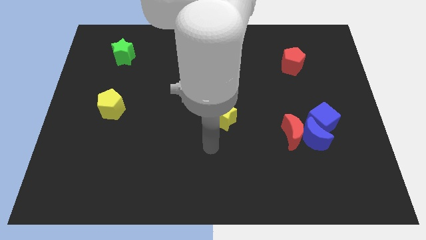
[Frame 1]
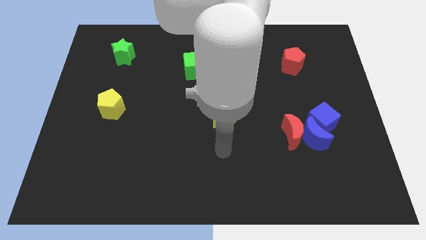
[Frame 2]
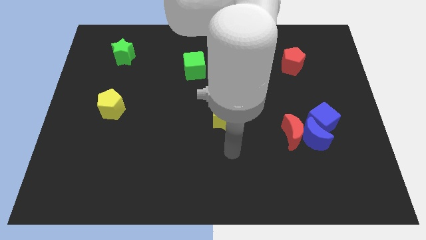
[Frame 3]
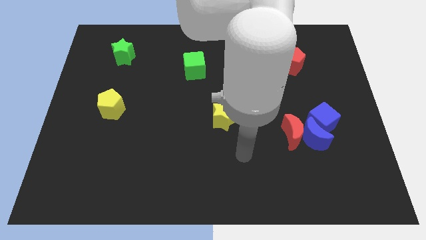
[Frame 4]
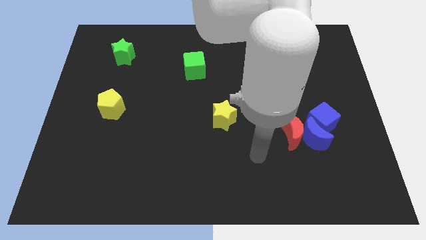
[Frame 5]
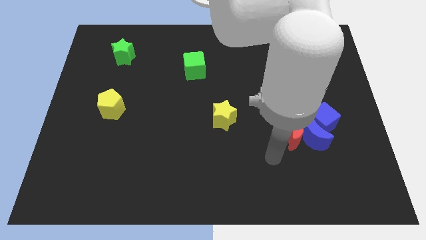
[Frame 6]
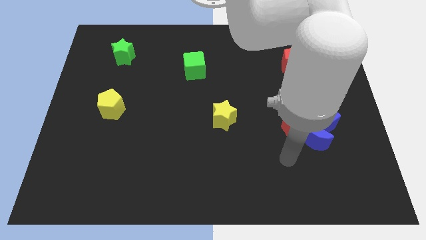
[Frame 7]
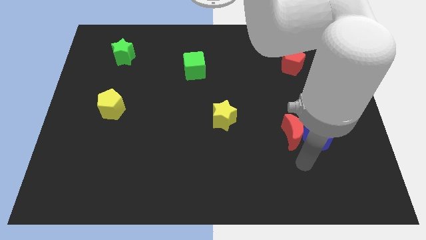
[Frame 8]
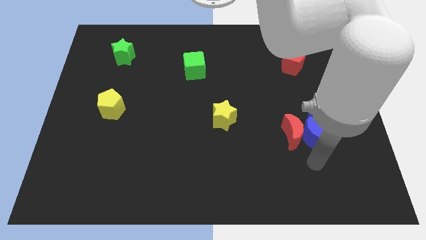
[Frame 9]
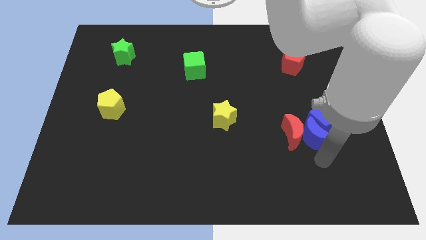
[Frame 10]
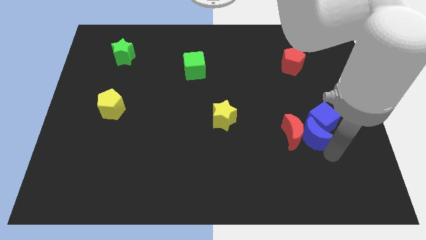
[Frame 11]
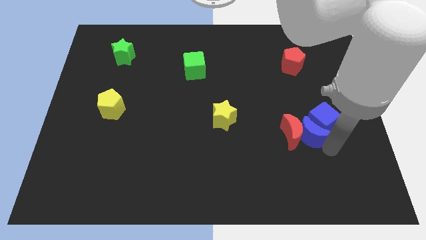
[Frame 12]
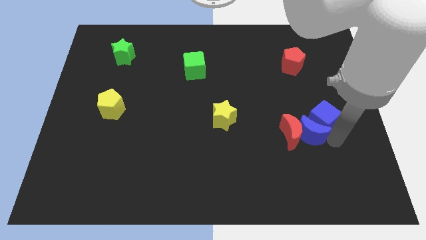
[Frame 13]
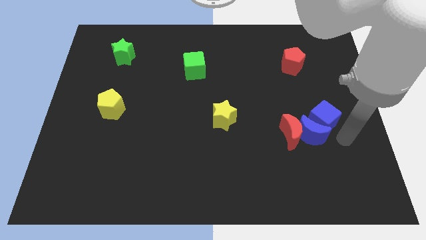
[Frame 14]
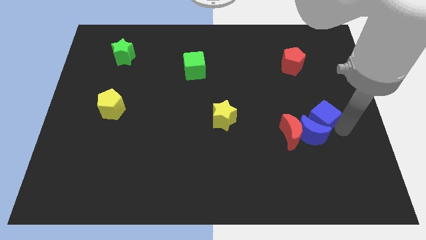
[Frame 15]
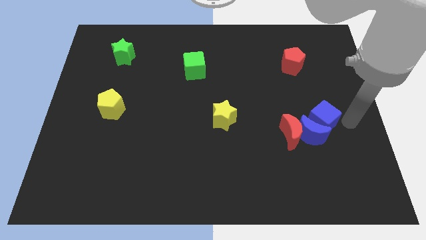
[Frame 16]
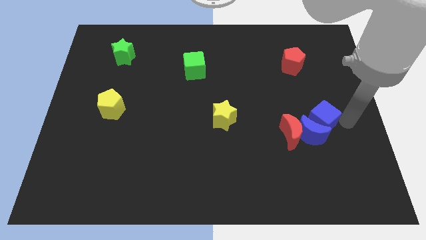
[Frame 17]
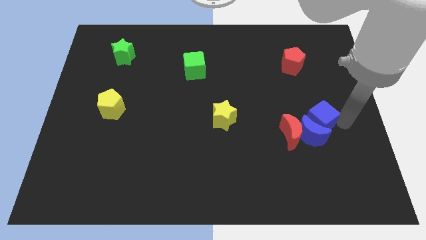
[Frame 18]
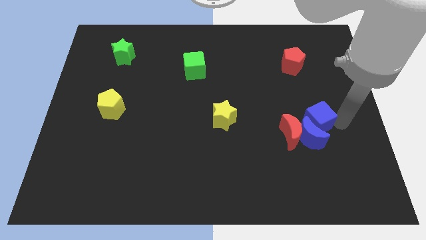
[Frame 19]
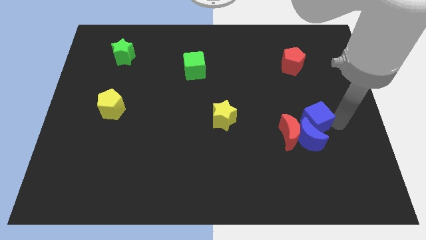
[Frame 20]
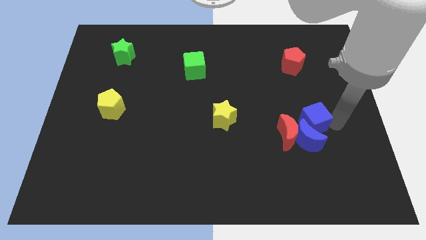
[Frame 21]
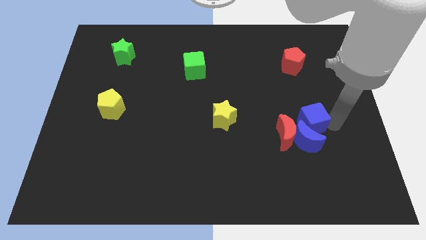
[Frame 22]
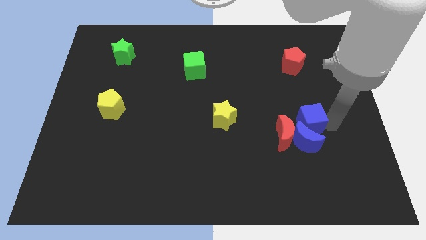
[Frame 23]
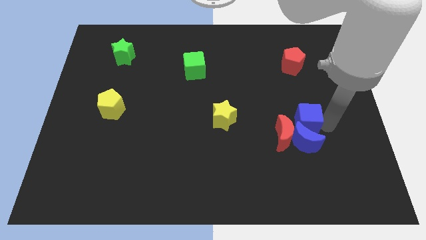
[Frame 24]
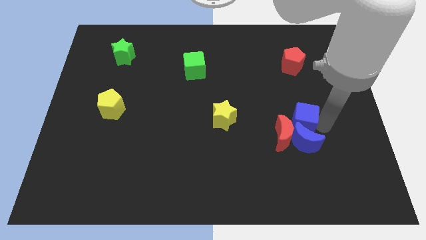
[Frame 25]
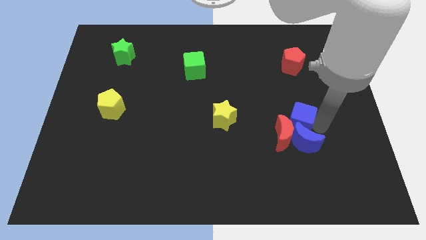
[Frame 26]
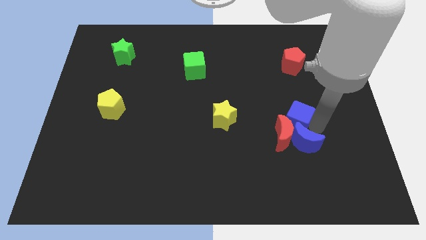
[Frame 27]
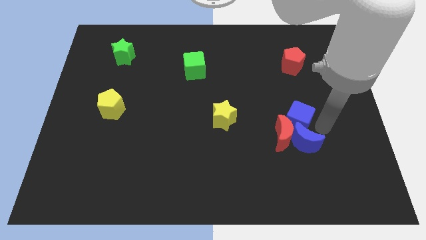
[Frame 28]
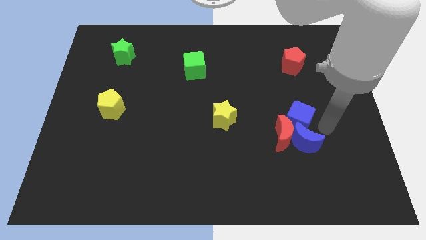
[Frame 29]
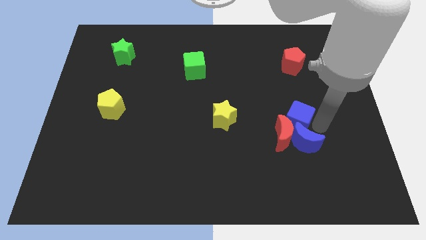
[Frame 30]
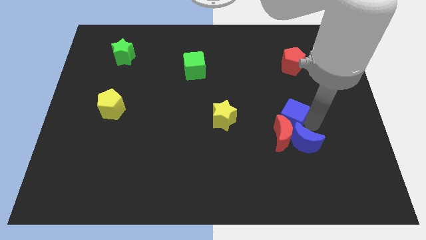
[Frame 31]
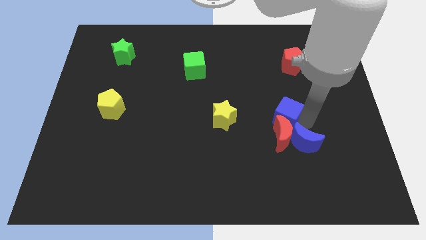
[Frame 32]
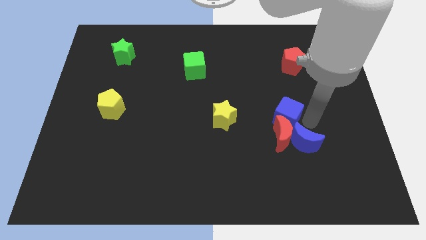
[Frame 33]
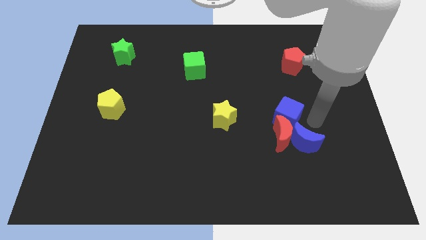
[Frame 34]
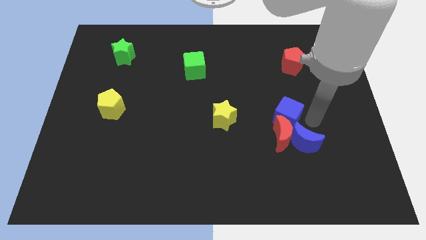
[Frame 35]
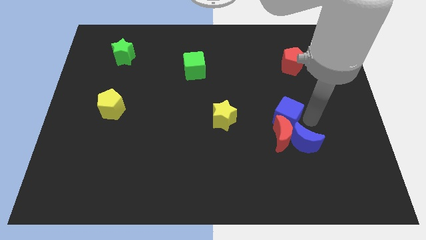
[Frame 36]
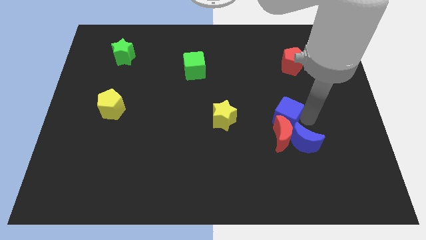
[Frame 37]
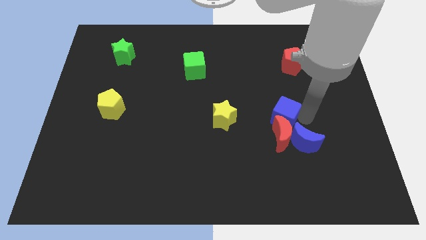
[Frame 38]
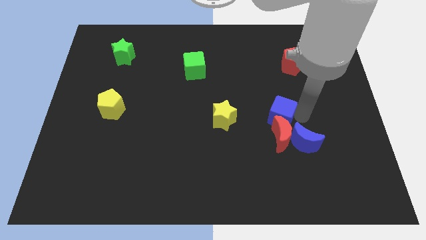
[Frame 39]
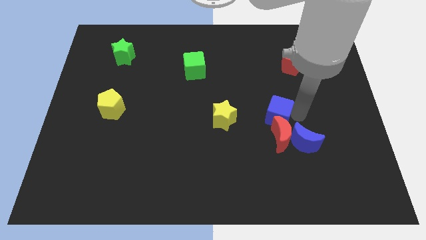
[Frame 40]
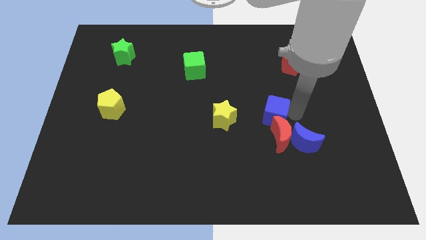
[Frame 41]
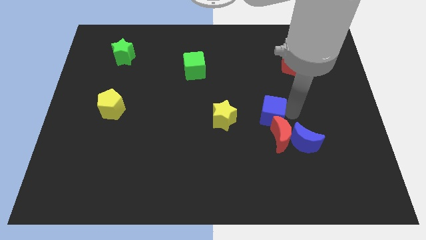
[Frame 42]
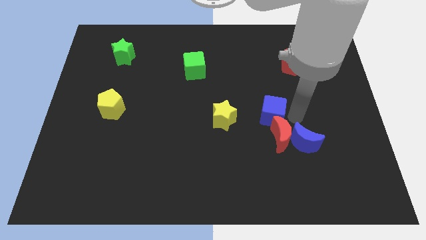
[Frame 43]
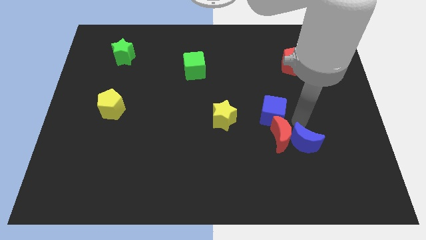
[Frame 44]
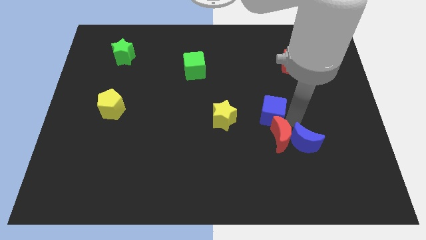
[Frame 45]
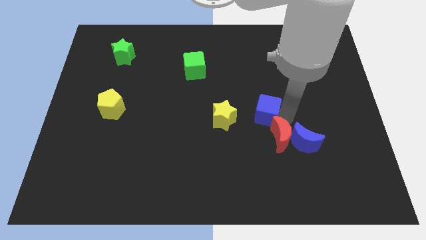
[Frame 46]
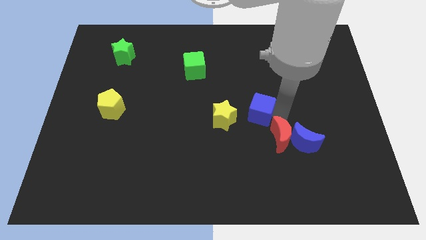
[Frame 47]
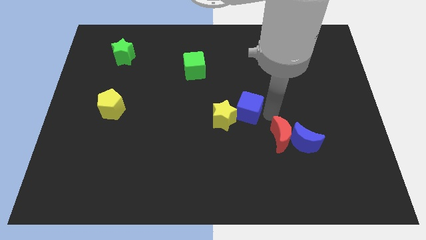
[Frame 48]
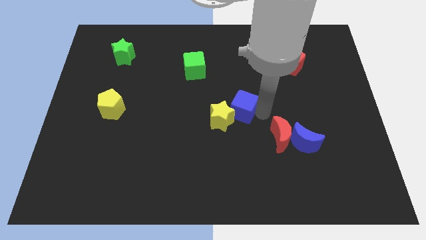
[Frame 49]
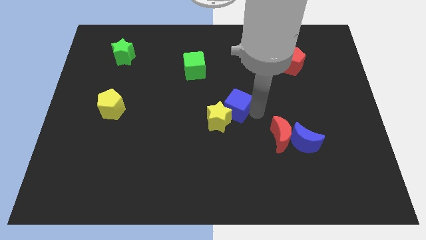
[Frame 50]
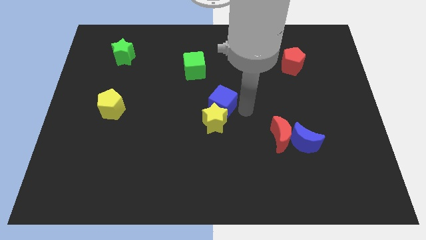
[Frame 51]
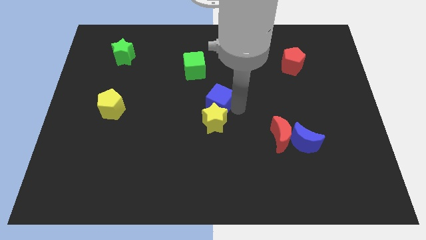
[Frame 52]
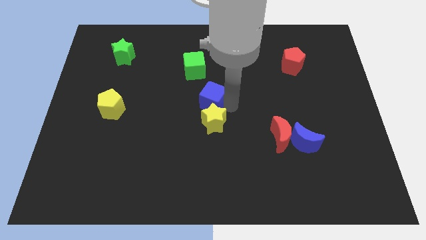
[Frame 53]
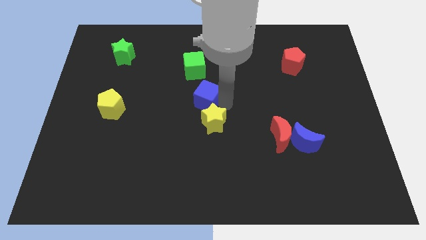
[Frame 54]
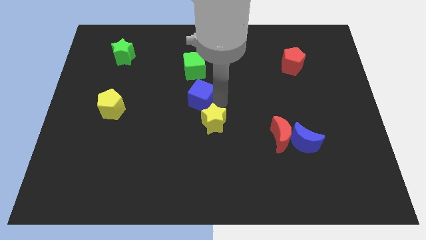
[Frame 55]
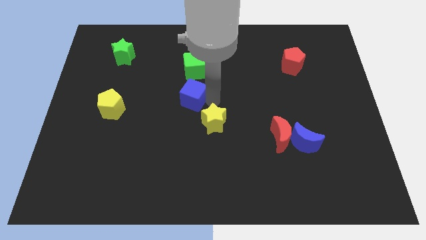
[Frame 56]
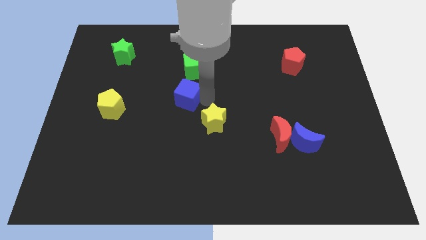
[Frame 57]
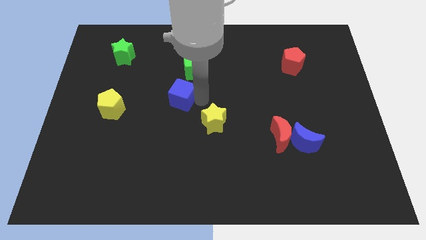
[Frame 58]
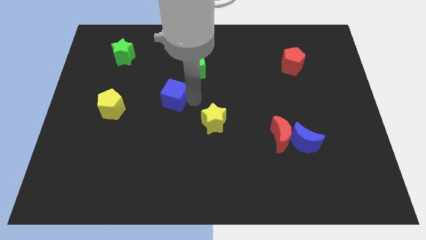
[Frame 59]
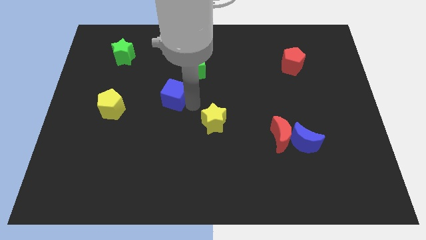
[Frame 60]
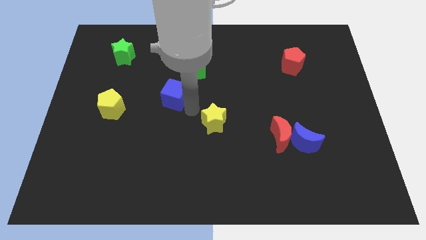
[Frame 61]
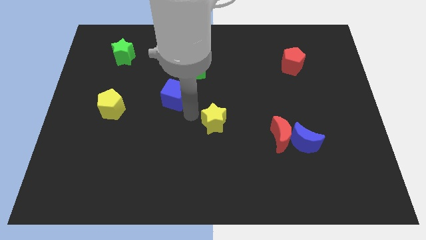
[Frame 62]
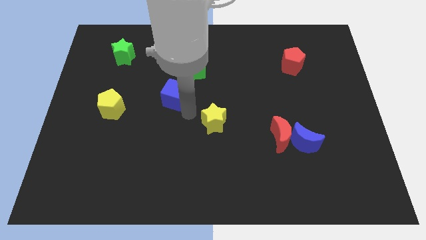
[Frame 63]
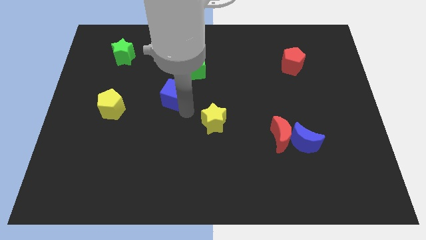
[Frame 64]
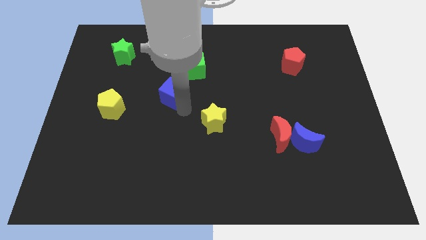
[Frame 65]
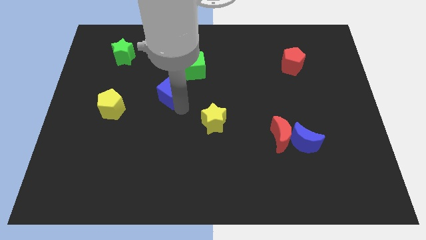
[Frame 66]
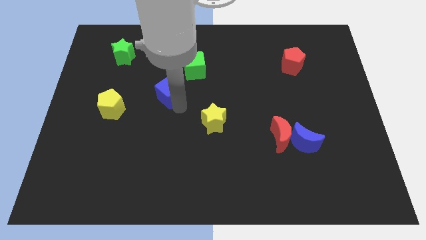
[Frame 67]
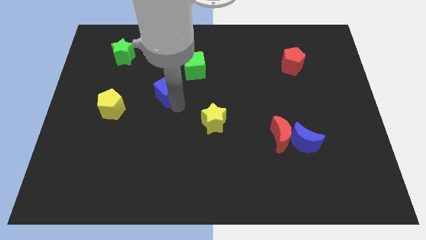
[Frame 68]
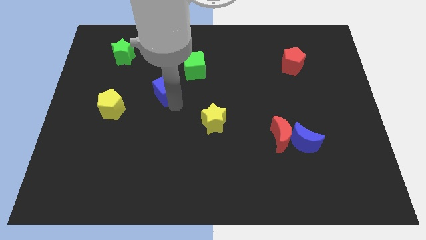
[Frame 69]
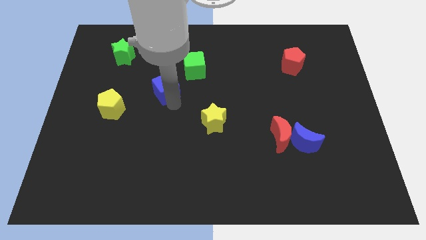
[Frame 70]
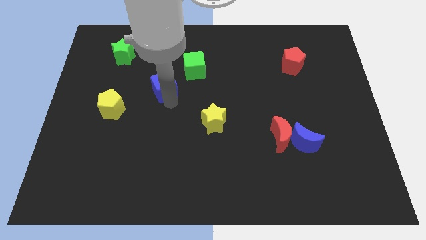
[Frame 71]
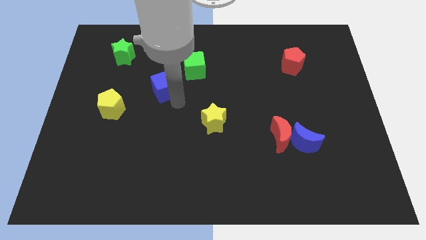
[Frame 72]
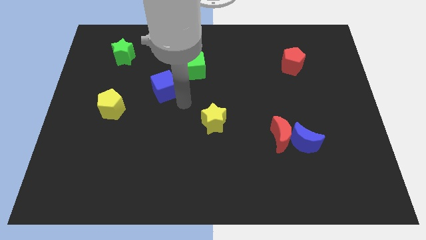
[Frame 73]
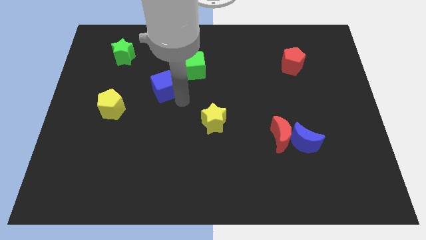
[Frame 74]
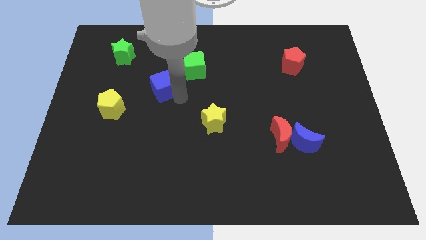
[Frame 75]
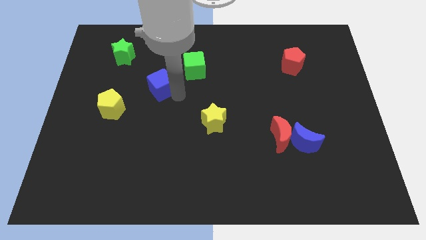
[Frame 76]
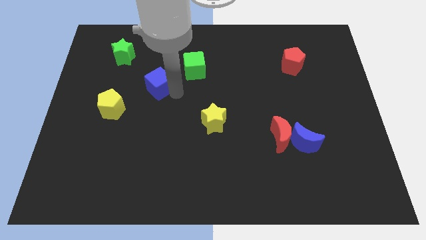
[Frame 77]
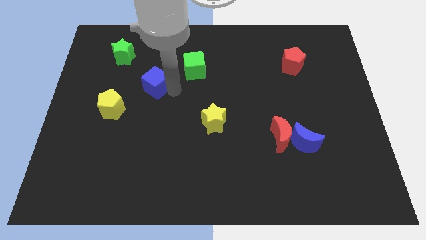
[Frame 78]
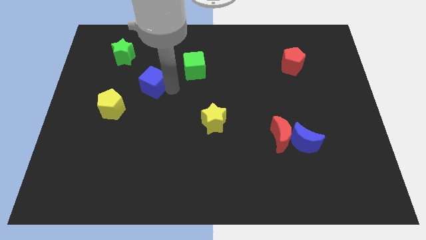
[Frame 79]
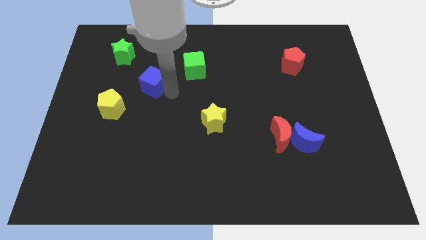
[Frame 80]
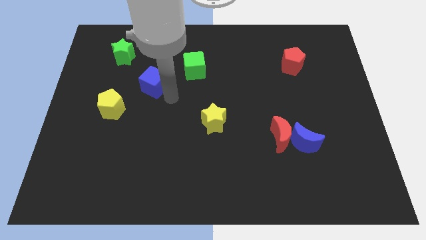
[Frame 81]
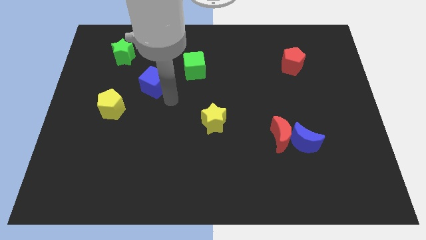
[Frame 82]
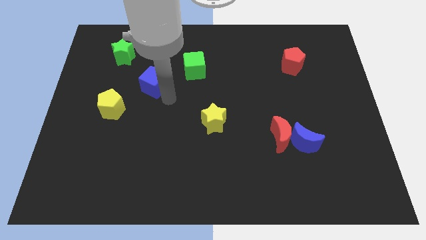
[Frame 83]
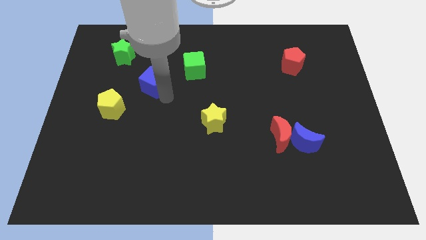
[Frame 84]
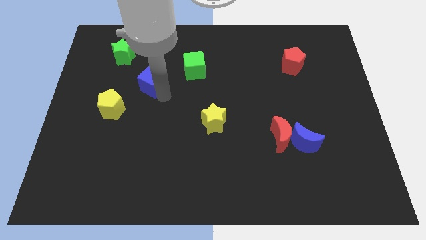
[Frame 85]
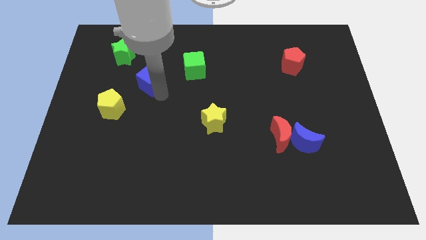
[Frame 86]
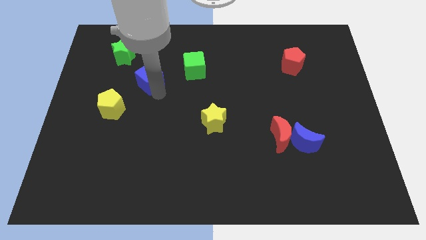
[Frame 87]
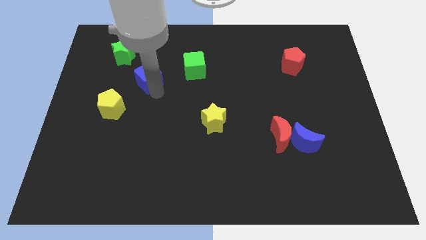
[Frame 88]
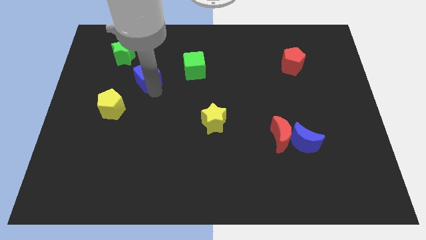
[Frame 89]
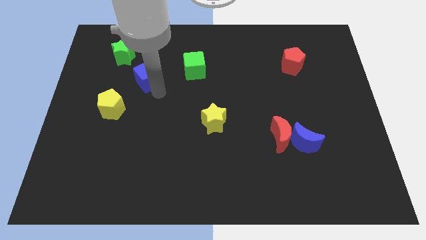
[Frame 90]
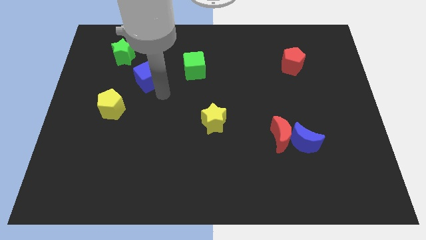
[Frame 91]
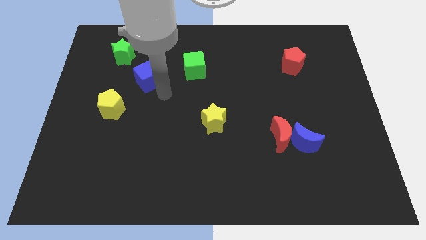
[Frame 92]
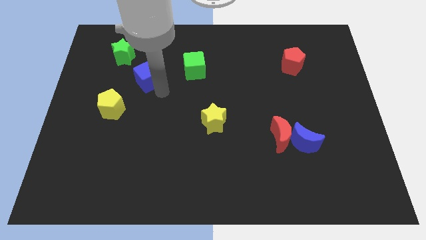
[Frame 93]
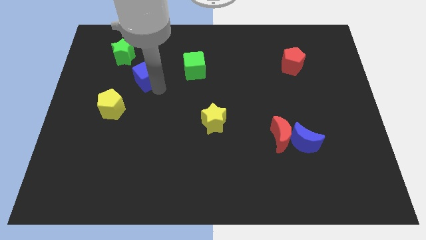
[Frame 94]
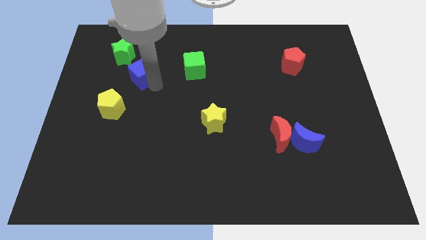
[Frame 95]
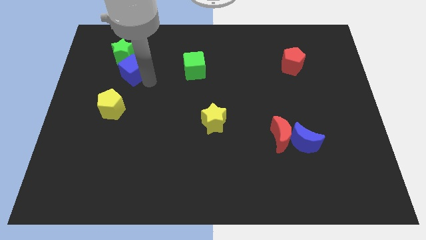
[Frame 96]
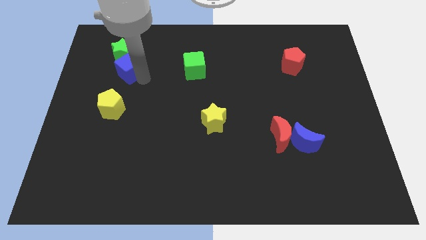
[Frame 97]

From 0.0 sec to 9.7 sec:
push the blue cube to the green star
